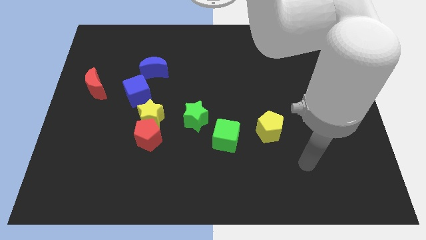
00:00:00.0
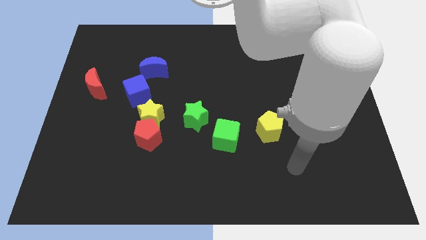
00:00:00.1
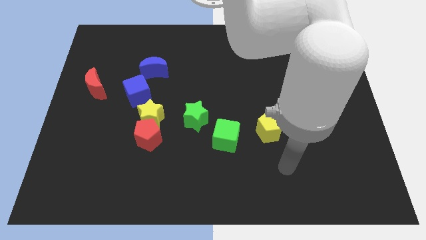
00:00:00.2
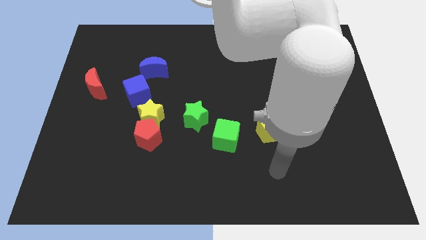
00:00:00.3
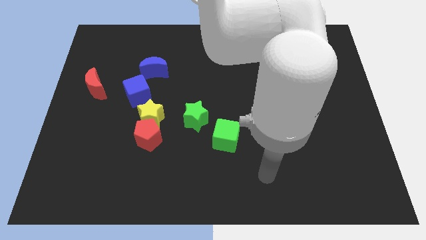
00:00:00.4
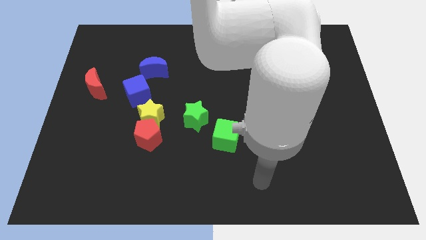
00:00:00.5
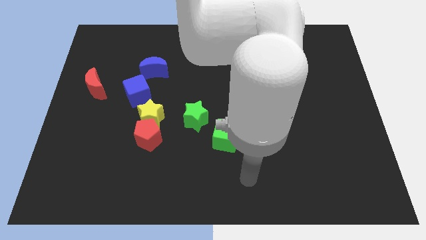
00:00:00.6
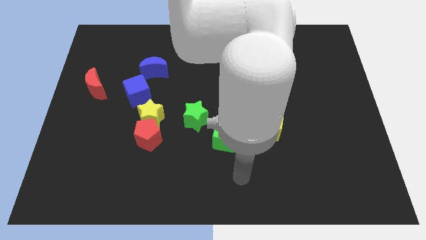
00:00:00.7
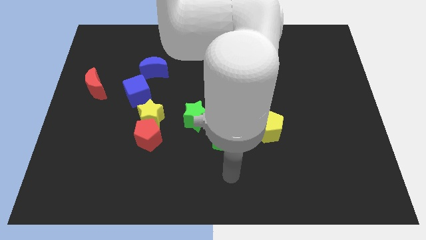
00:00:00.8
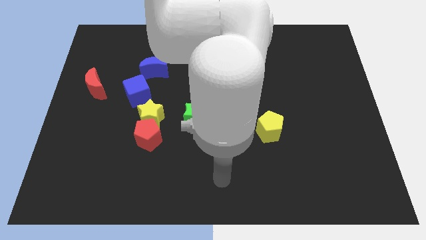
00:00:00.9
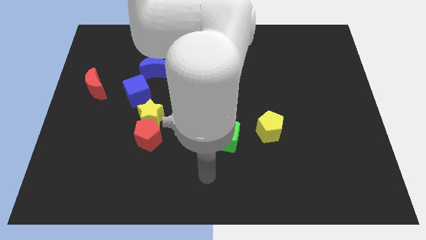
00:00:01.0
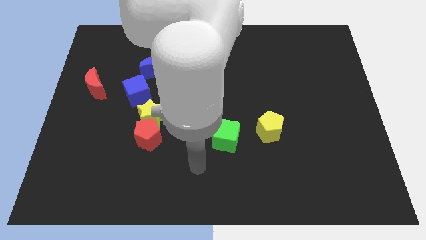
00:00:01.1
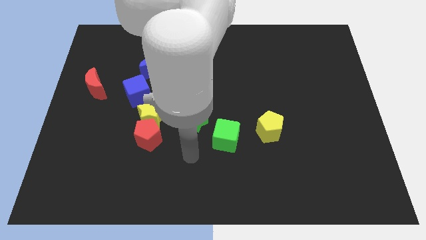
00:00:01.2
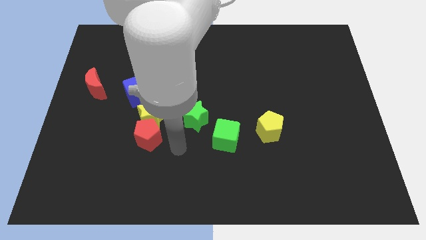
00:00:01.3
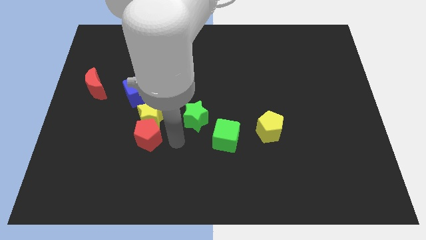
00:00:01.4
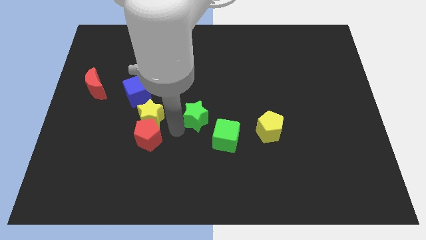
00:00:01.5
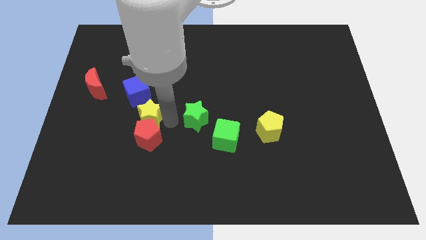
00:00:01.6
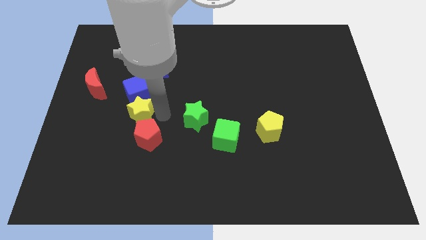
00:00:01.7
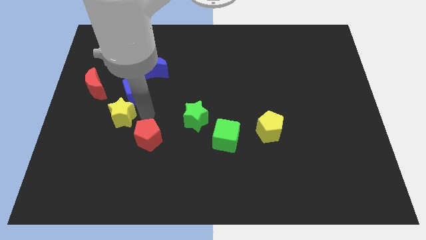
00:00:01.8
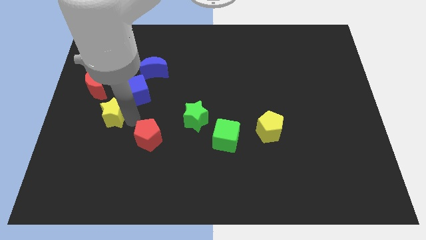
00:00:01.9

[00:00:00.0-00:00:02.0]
pull the red pentagon apart from the yellow star

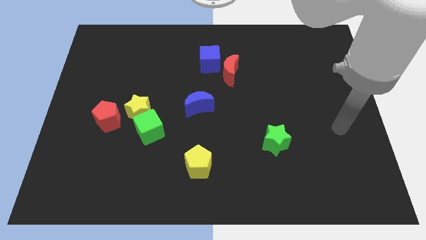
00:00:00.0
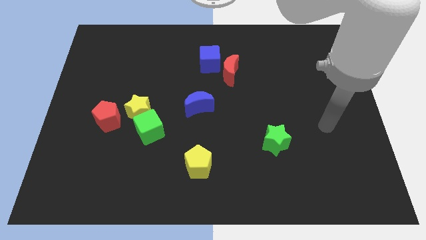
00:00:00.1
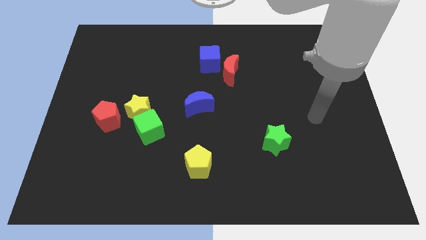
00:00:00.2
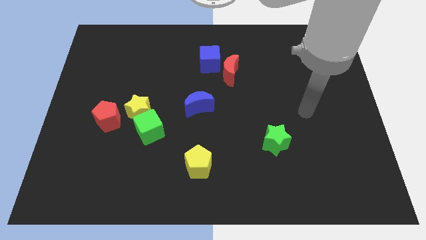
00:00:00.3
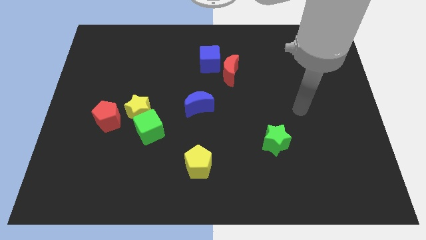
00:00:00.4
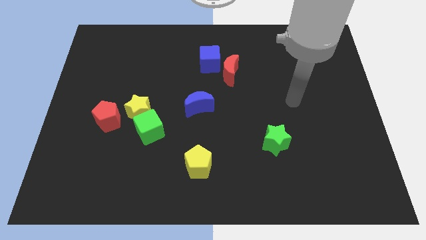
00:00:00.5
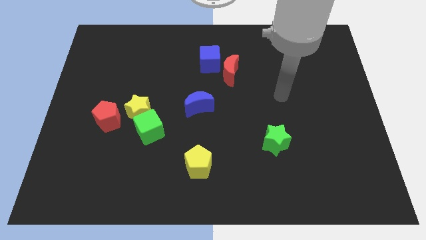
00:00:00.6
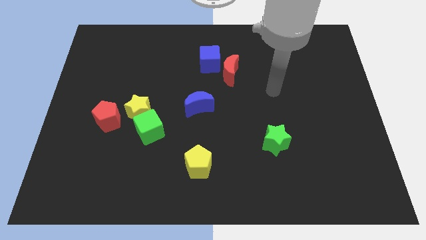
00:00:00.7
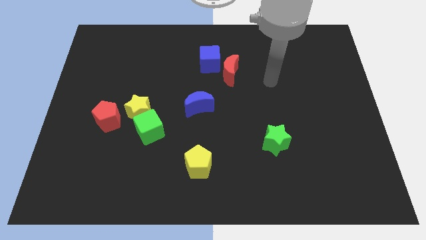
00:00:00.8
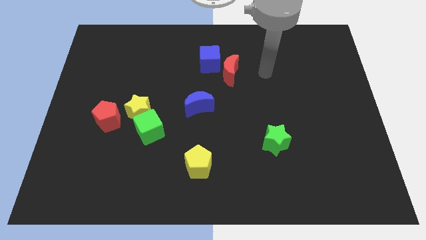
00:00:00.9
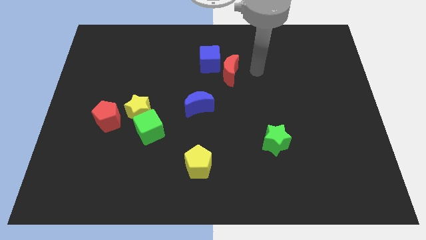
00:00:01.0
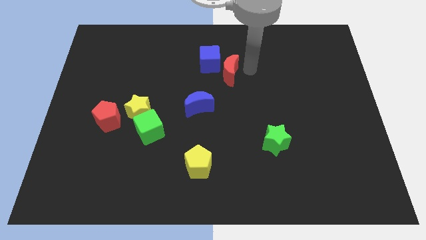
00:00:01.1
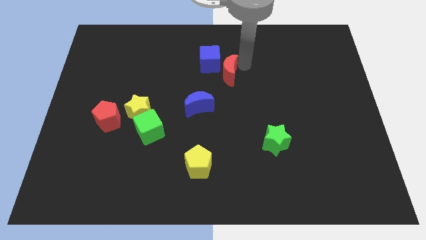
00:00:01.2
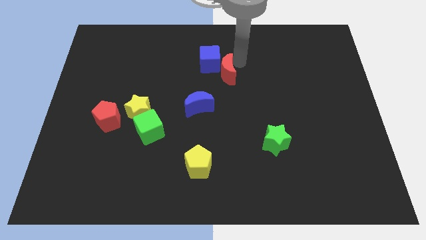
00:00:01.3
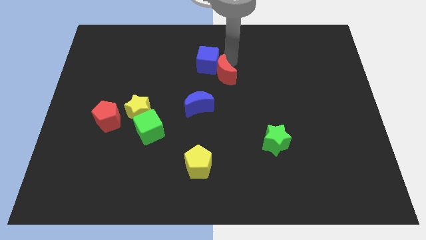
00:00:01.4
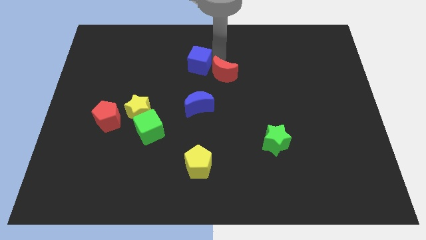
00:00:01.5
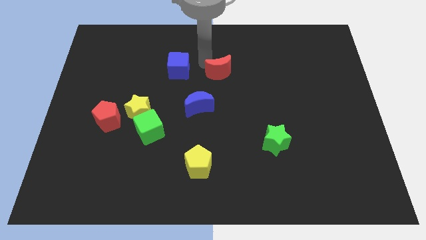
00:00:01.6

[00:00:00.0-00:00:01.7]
move the red moon away from the blue cube

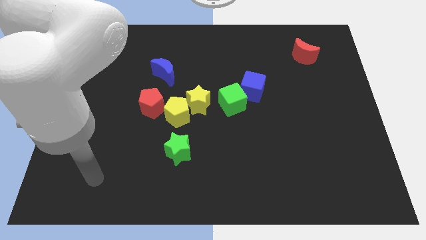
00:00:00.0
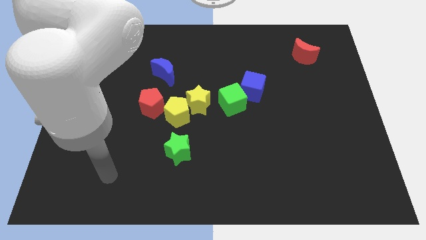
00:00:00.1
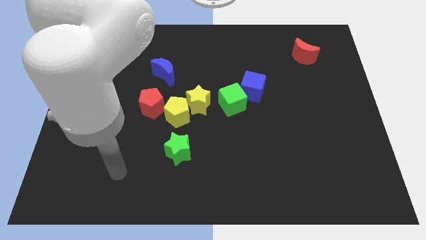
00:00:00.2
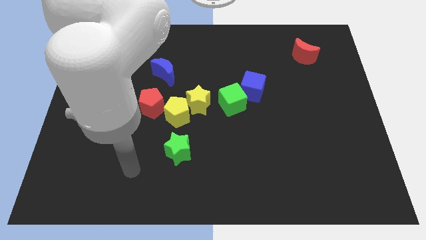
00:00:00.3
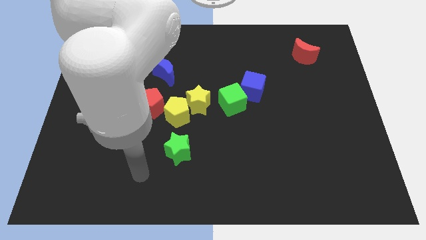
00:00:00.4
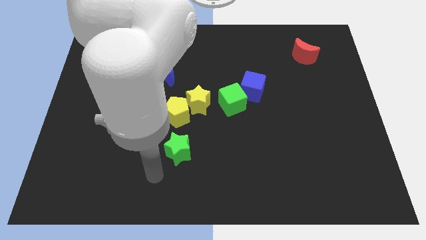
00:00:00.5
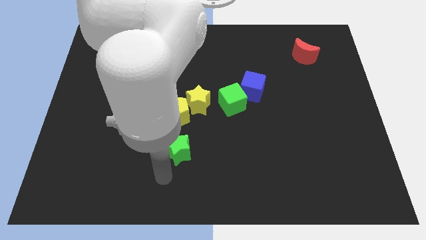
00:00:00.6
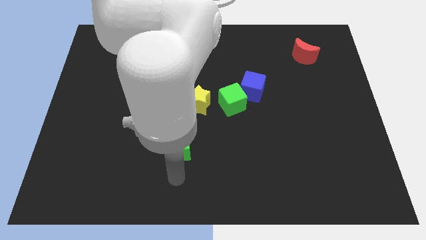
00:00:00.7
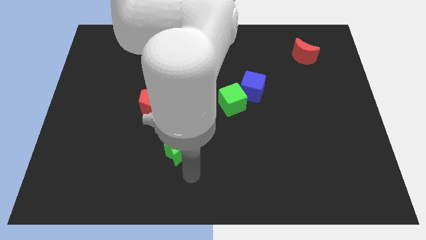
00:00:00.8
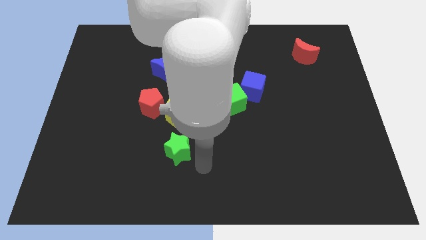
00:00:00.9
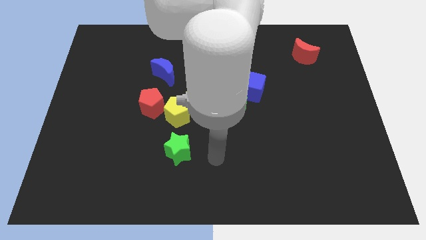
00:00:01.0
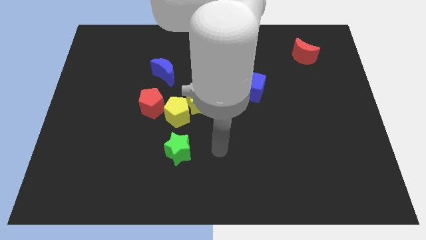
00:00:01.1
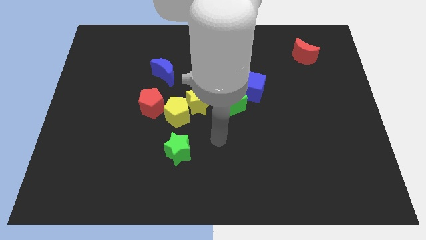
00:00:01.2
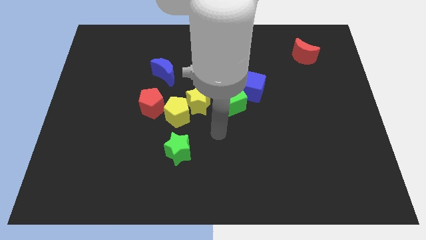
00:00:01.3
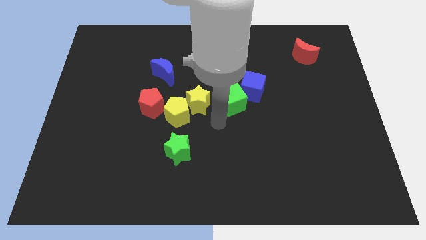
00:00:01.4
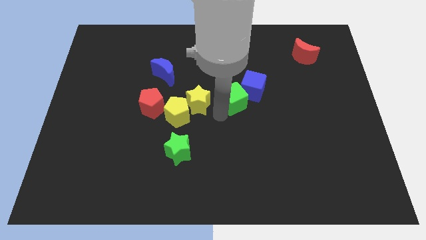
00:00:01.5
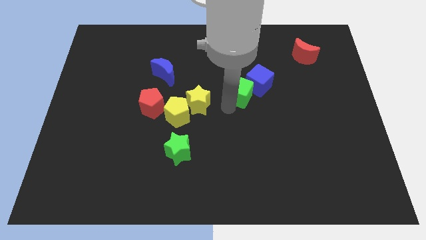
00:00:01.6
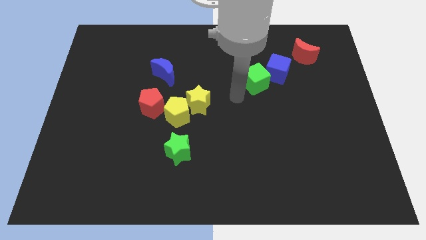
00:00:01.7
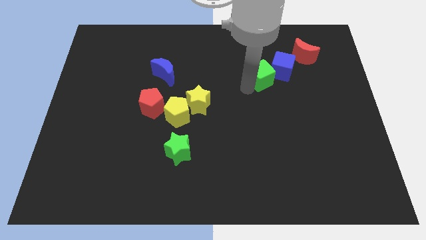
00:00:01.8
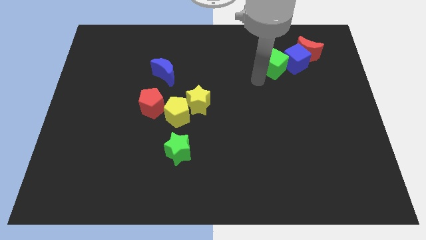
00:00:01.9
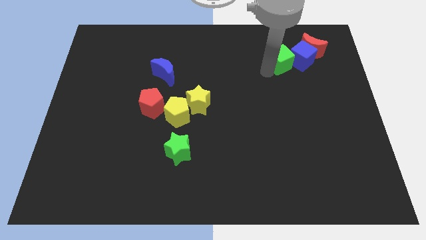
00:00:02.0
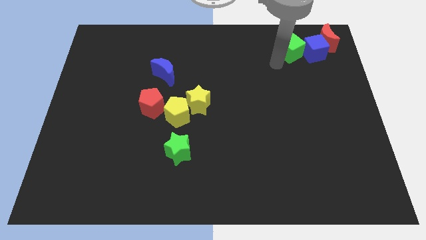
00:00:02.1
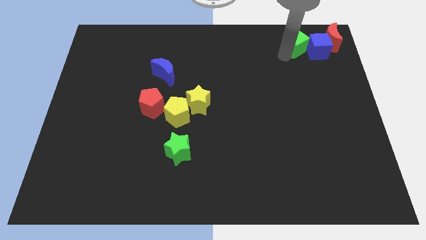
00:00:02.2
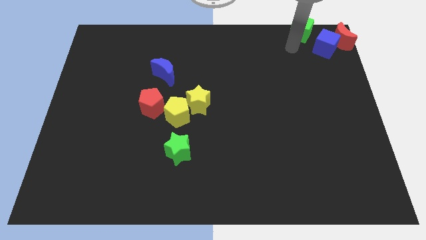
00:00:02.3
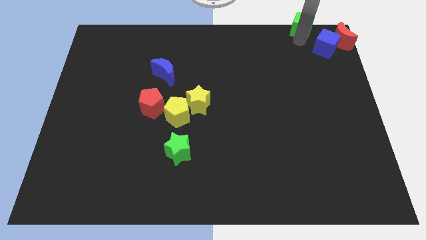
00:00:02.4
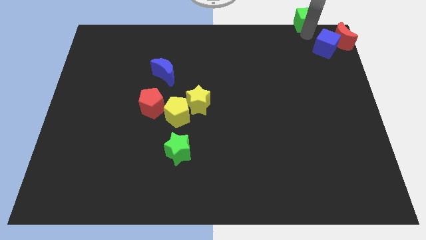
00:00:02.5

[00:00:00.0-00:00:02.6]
pull the blue cube apart from the green cube

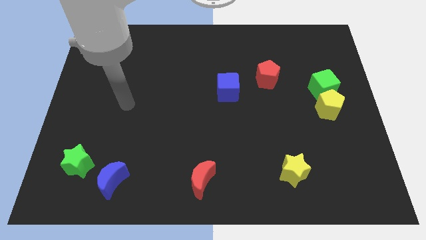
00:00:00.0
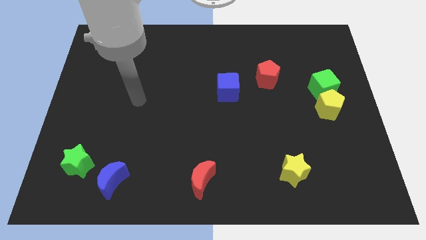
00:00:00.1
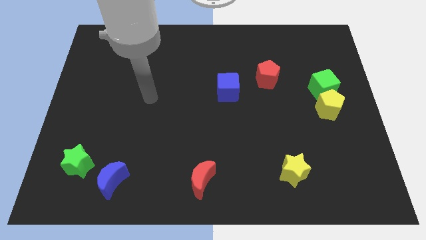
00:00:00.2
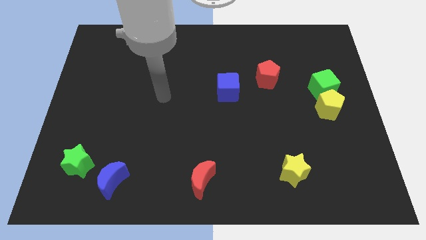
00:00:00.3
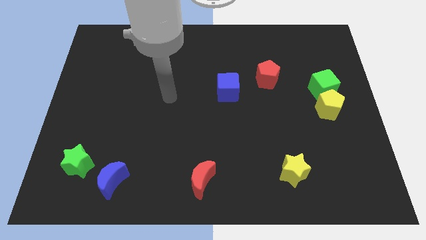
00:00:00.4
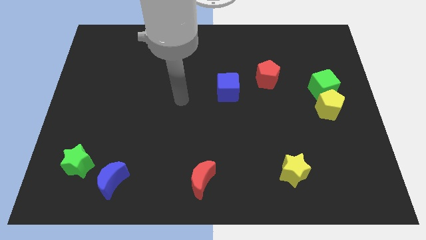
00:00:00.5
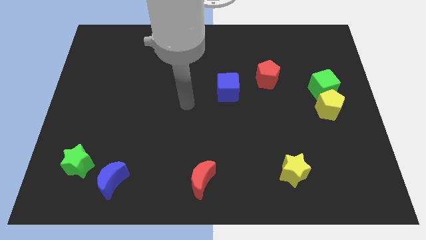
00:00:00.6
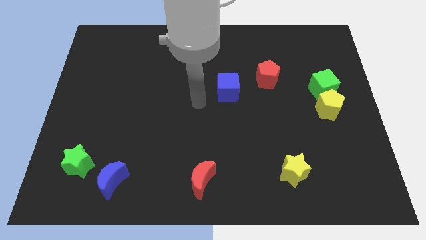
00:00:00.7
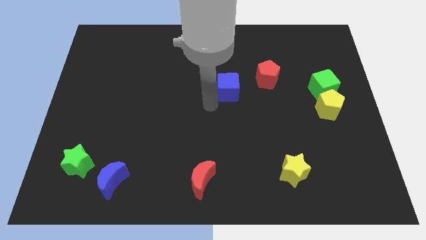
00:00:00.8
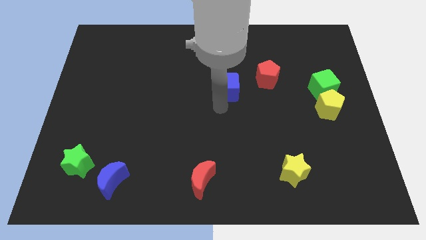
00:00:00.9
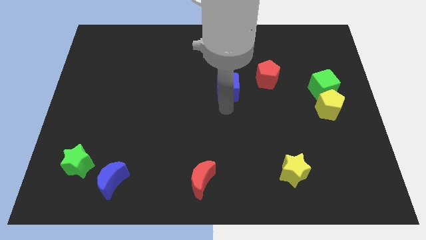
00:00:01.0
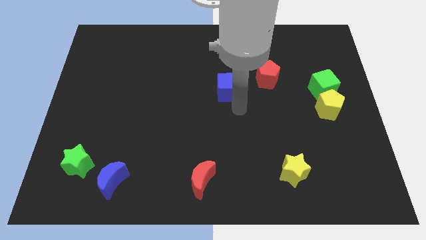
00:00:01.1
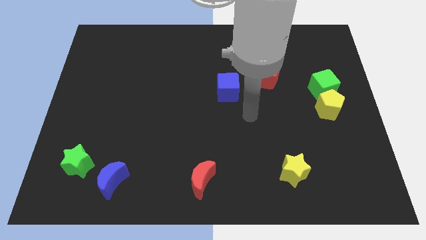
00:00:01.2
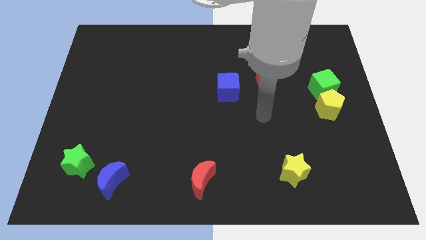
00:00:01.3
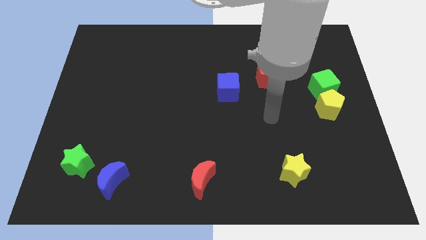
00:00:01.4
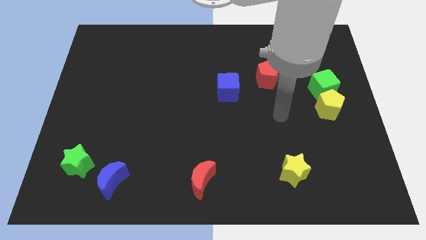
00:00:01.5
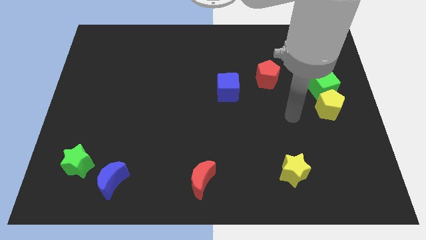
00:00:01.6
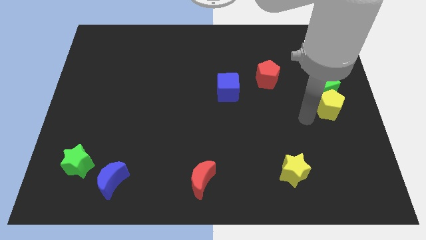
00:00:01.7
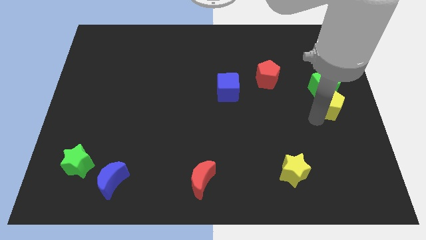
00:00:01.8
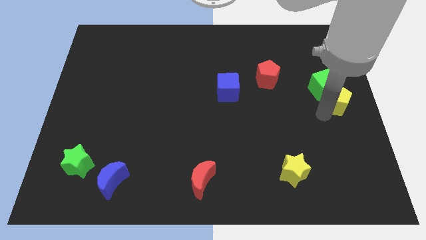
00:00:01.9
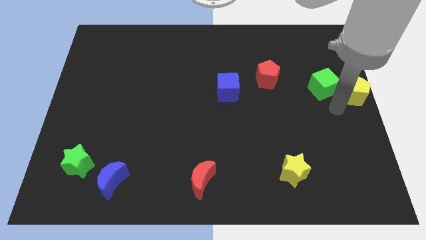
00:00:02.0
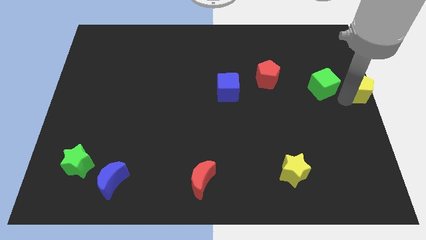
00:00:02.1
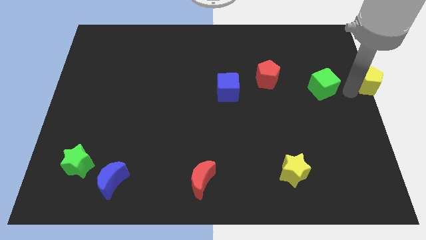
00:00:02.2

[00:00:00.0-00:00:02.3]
move the green cube away from the yellow pentagon

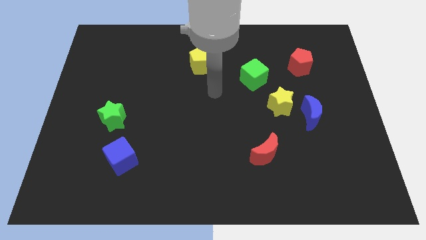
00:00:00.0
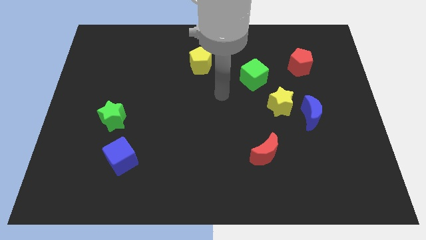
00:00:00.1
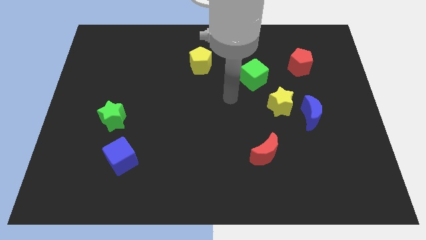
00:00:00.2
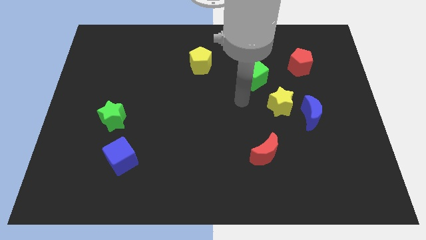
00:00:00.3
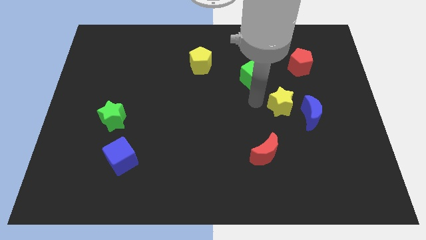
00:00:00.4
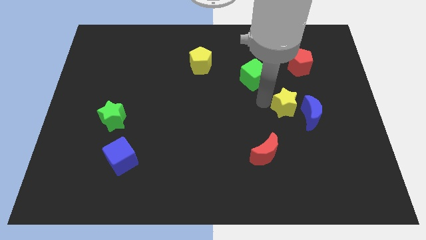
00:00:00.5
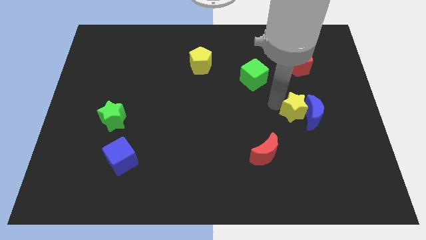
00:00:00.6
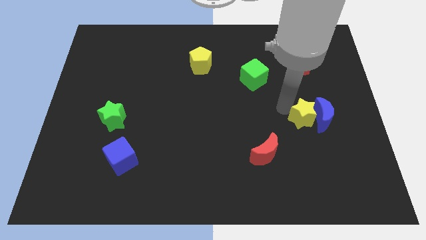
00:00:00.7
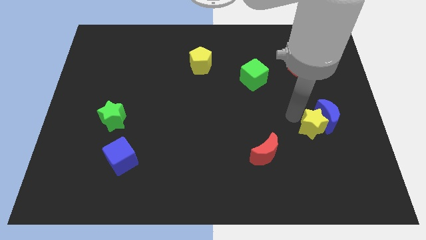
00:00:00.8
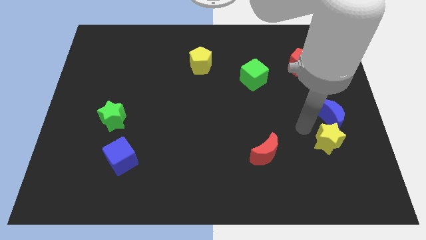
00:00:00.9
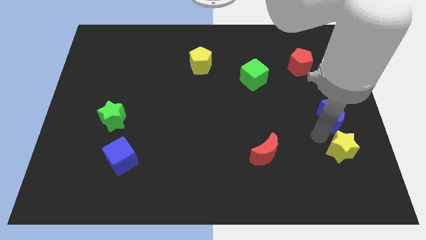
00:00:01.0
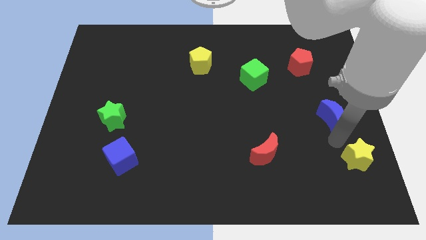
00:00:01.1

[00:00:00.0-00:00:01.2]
separate the blue moon from the yellow star
